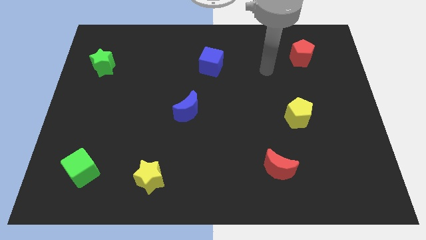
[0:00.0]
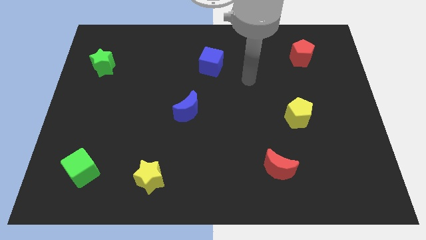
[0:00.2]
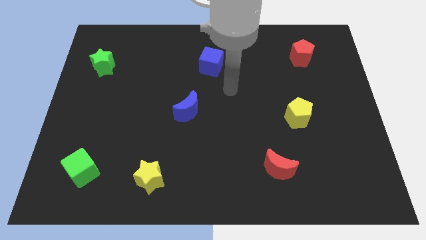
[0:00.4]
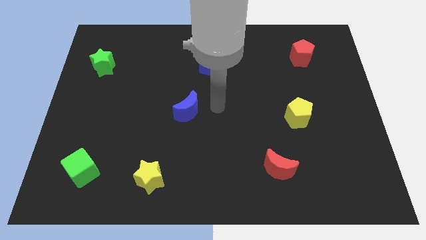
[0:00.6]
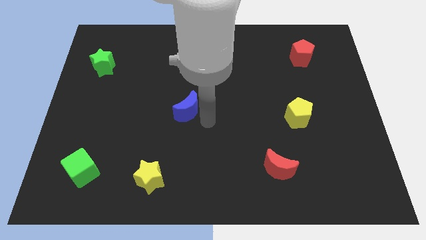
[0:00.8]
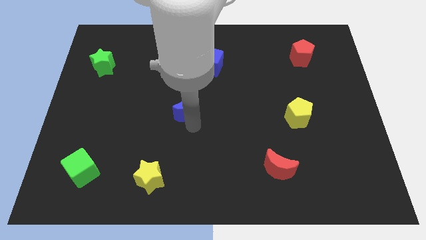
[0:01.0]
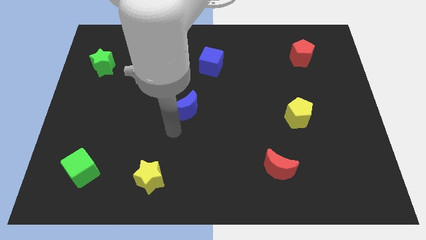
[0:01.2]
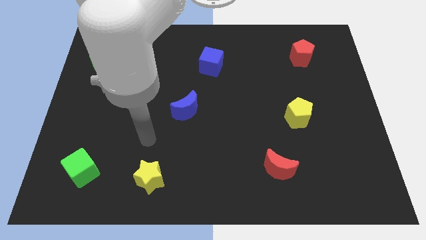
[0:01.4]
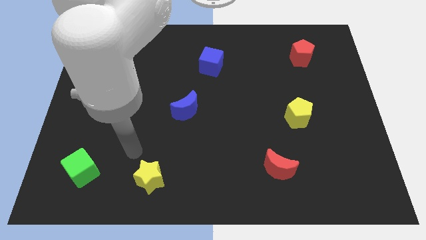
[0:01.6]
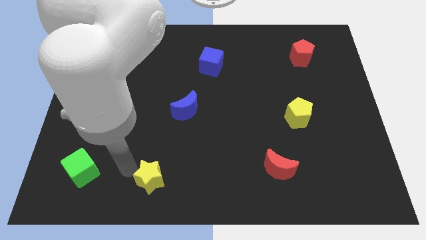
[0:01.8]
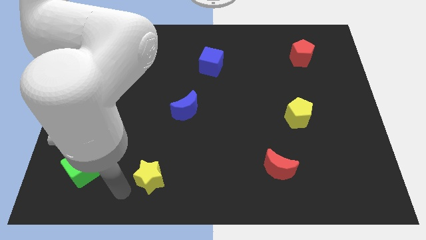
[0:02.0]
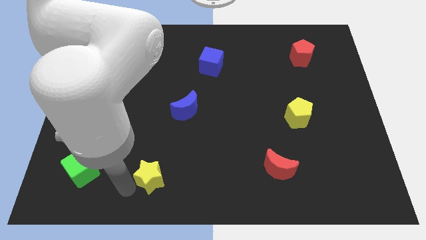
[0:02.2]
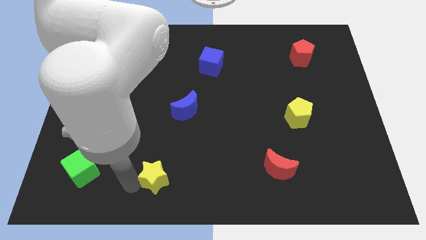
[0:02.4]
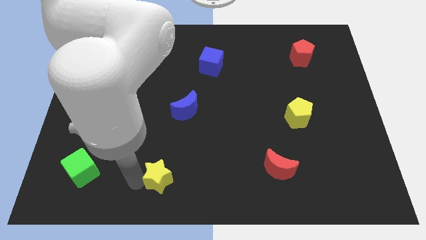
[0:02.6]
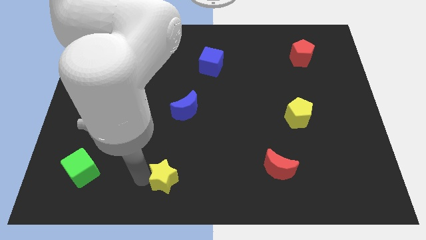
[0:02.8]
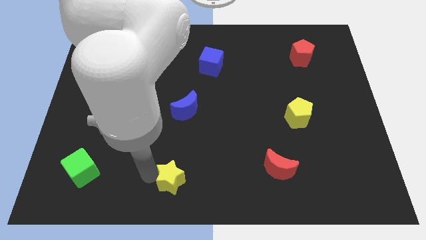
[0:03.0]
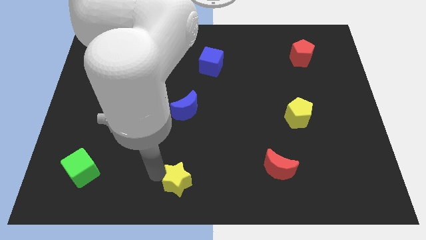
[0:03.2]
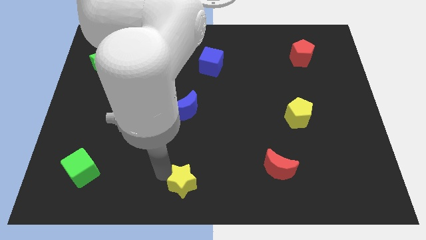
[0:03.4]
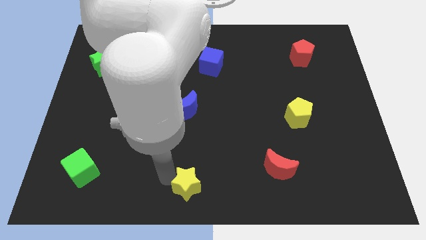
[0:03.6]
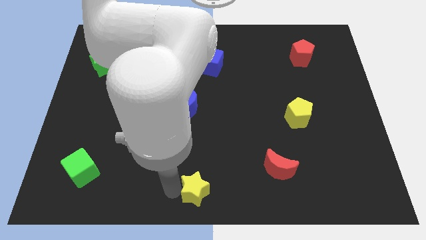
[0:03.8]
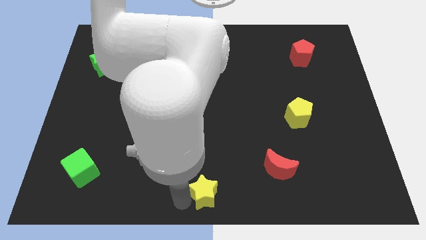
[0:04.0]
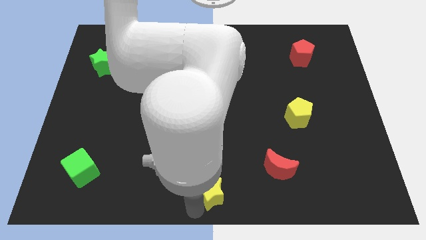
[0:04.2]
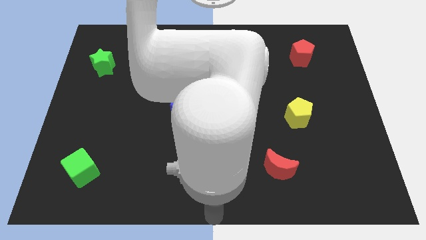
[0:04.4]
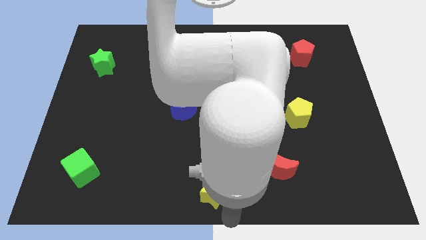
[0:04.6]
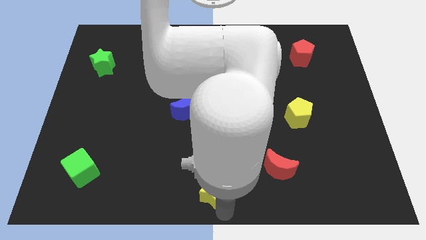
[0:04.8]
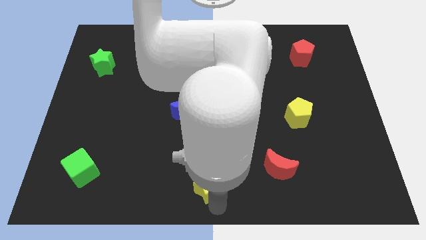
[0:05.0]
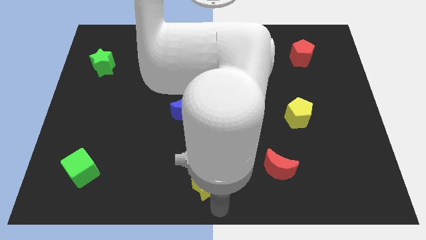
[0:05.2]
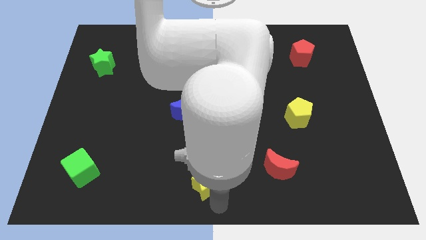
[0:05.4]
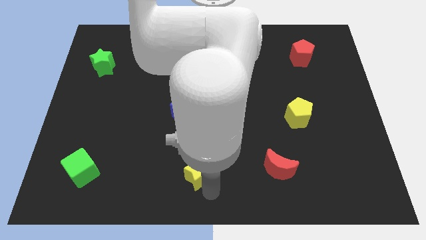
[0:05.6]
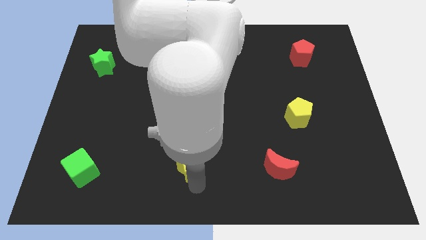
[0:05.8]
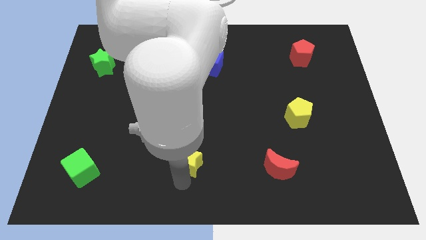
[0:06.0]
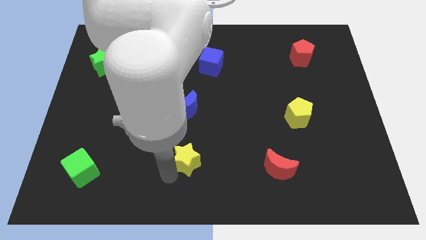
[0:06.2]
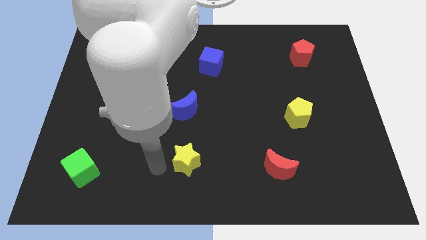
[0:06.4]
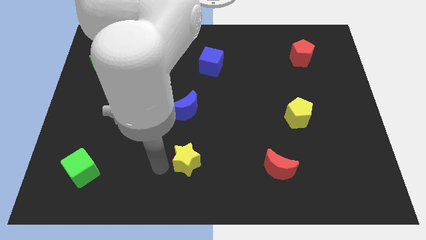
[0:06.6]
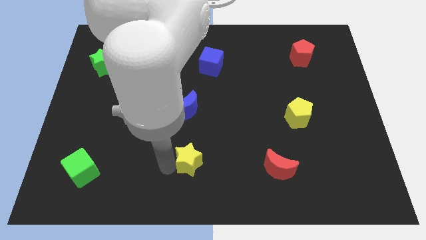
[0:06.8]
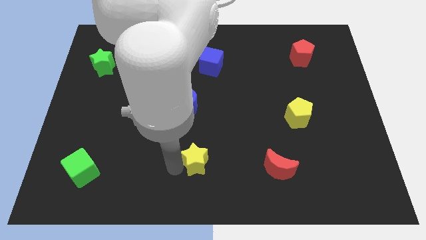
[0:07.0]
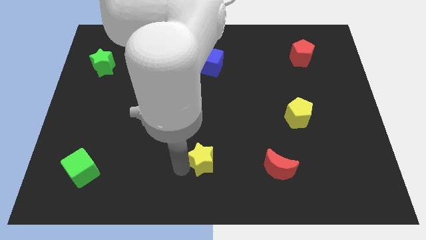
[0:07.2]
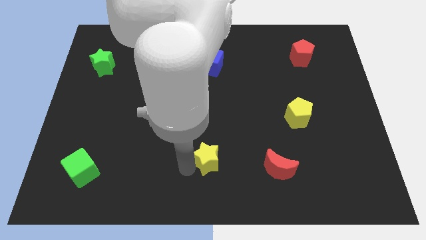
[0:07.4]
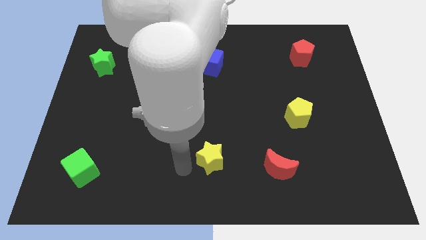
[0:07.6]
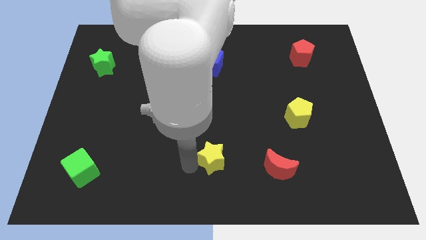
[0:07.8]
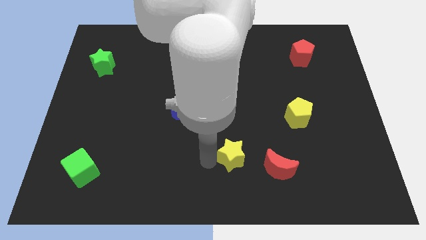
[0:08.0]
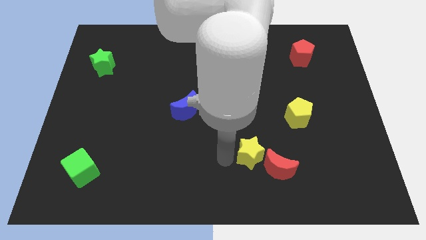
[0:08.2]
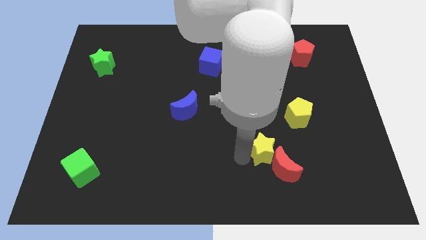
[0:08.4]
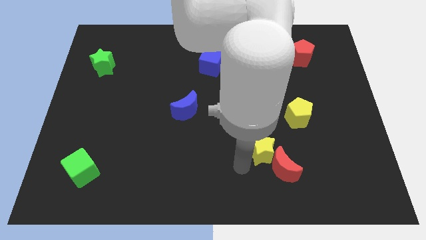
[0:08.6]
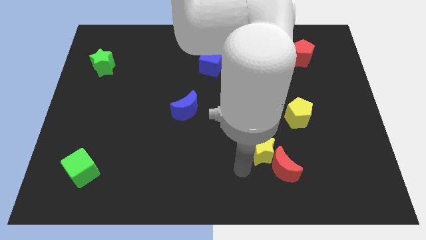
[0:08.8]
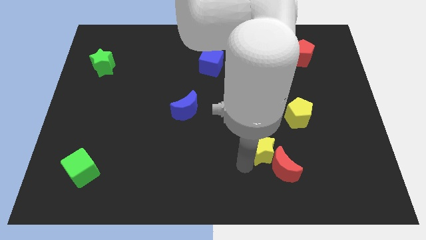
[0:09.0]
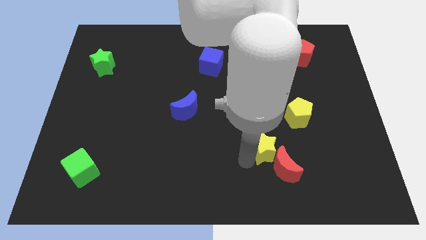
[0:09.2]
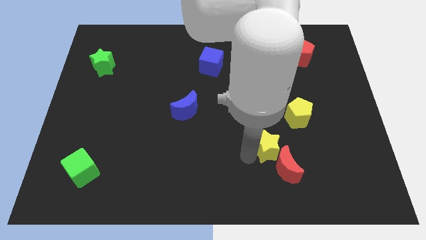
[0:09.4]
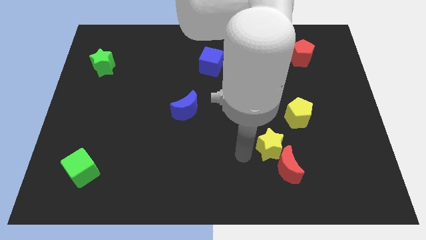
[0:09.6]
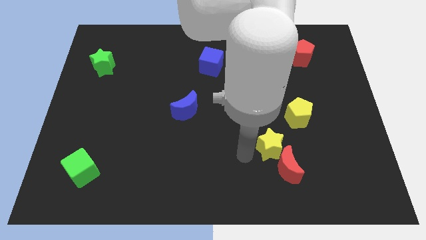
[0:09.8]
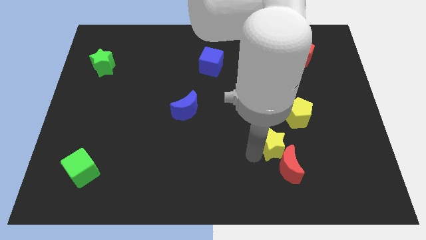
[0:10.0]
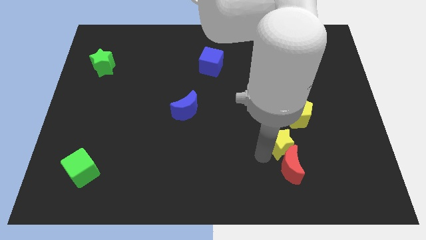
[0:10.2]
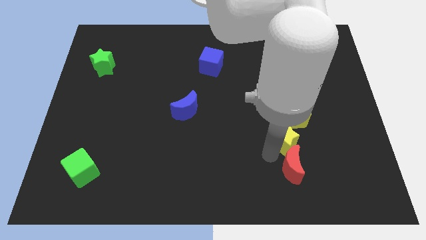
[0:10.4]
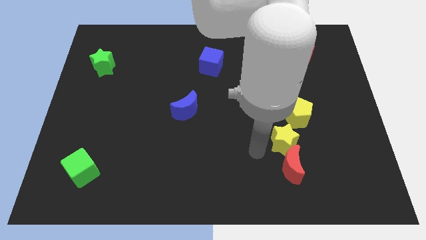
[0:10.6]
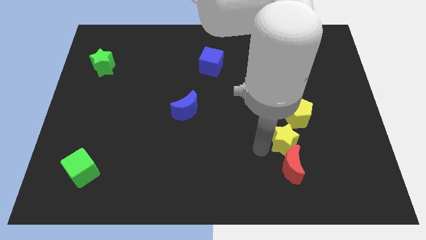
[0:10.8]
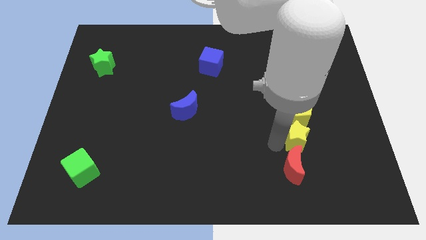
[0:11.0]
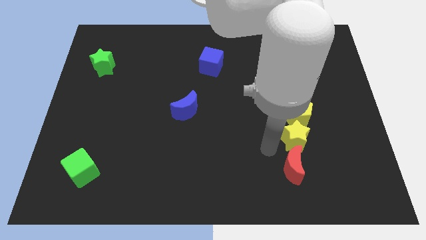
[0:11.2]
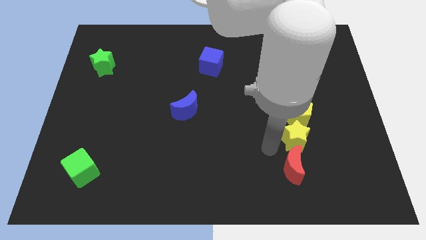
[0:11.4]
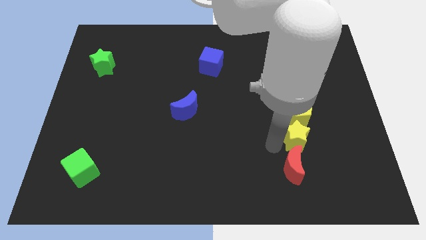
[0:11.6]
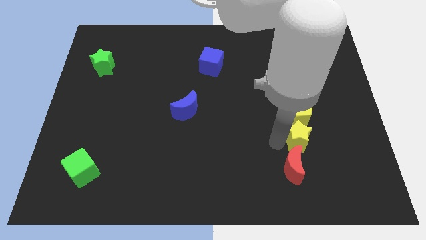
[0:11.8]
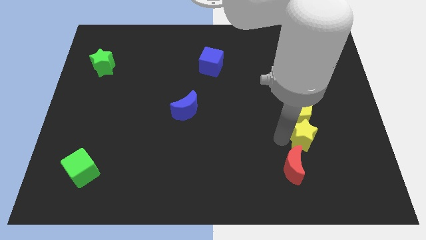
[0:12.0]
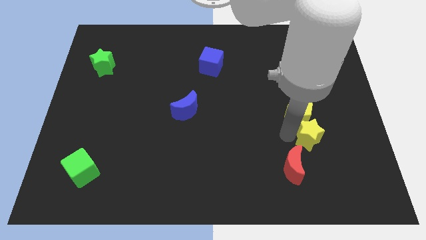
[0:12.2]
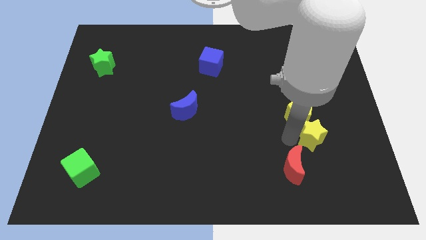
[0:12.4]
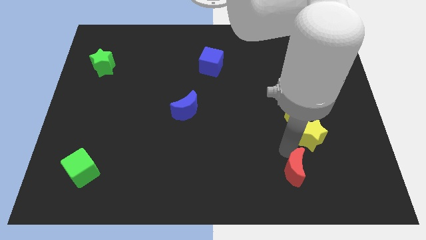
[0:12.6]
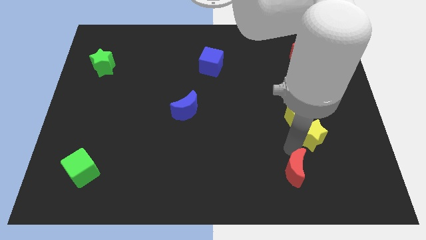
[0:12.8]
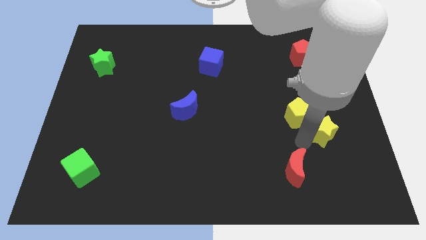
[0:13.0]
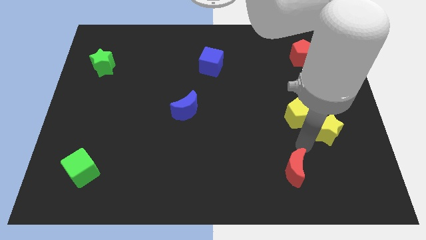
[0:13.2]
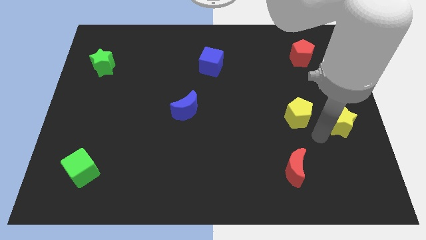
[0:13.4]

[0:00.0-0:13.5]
put the yellow star to the right side
